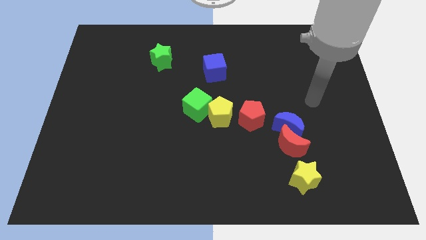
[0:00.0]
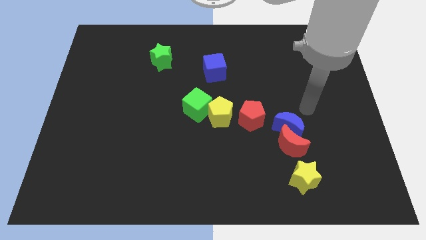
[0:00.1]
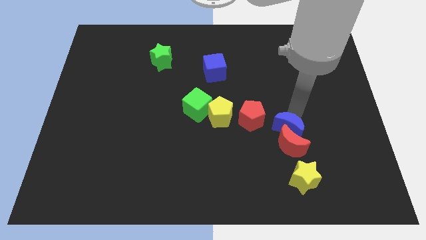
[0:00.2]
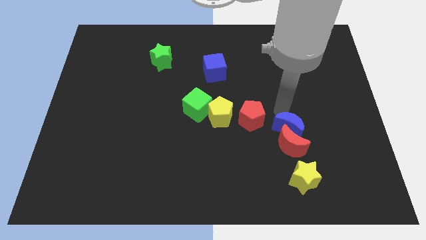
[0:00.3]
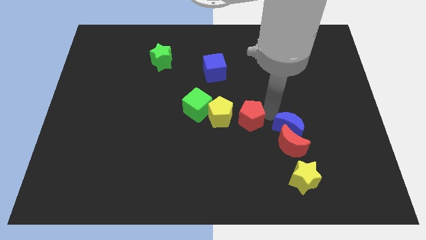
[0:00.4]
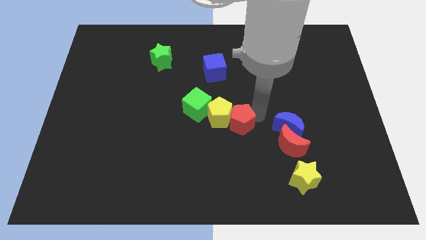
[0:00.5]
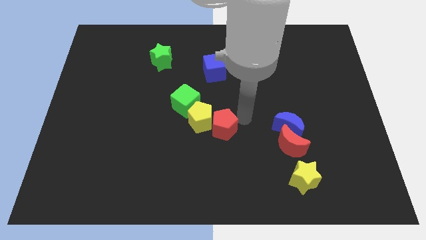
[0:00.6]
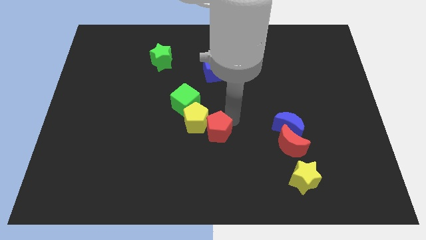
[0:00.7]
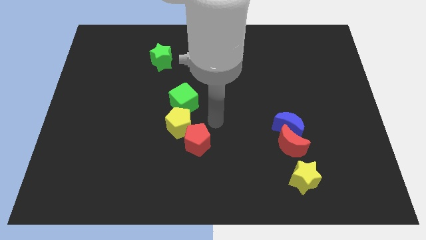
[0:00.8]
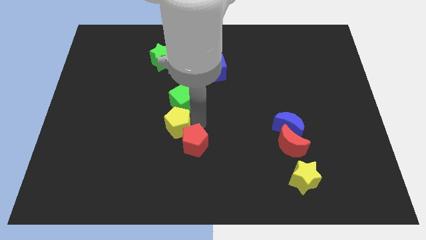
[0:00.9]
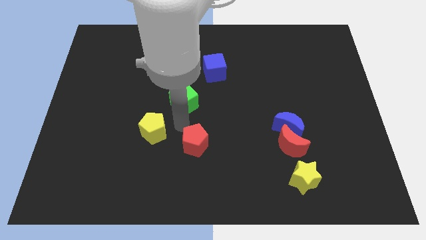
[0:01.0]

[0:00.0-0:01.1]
move the green cube away from the yellow pentagon

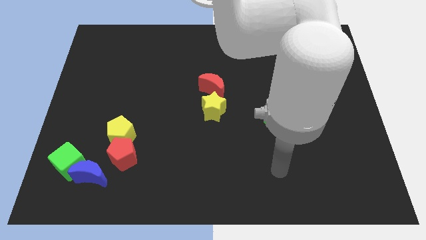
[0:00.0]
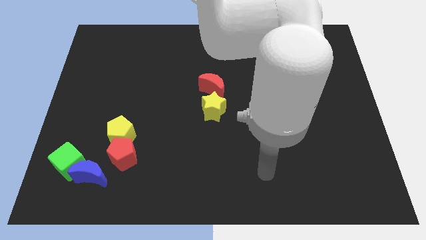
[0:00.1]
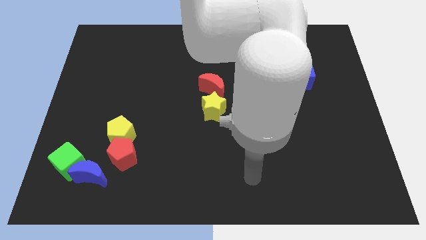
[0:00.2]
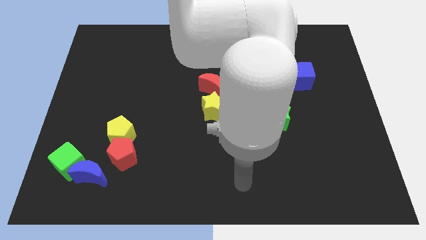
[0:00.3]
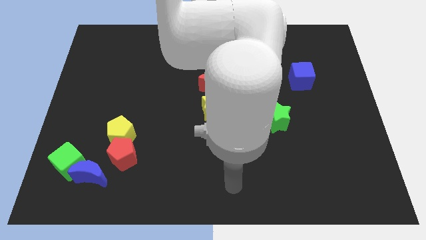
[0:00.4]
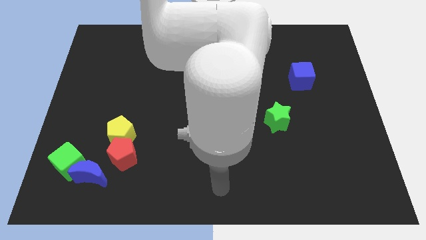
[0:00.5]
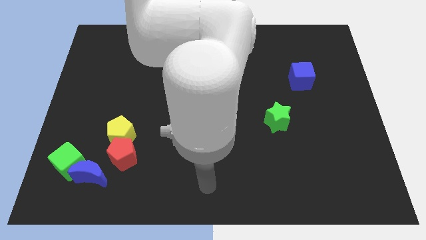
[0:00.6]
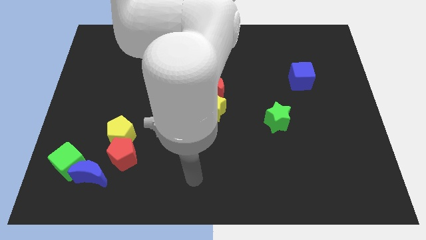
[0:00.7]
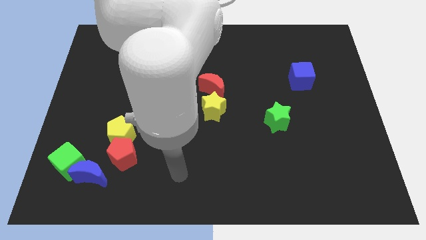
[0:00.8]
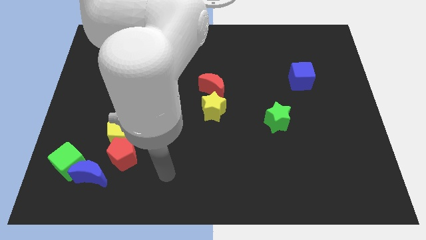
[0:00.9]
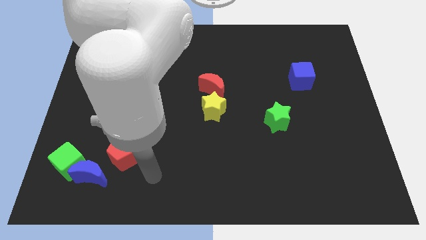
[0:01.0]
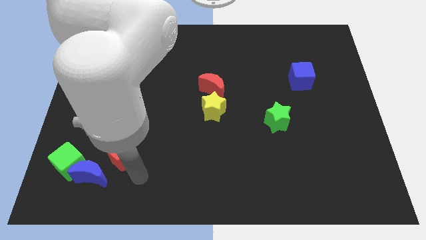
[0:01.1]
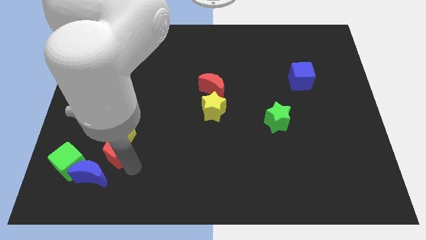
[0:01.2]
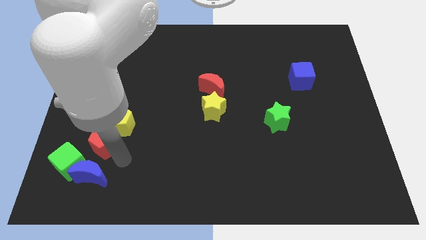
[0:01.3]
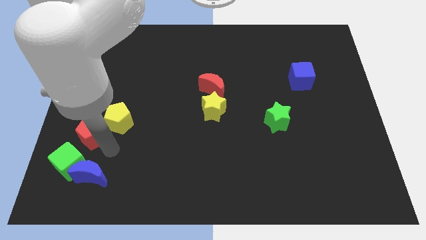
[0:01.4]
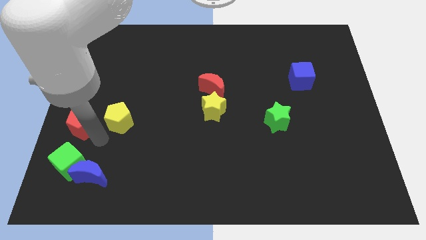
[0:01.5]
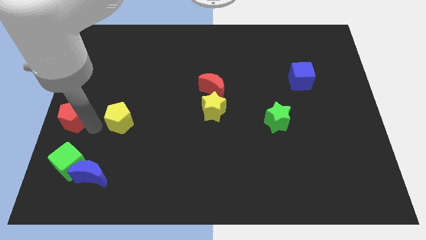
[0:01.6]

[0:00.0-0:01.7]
pull the yellow pentagon apart from the red pentagon

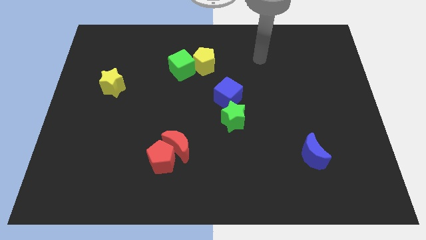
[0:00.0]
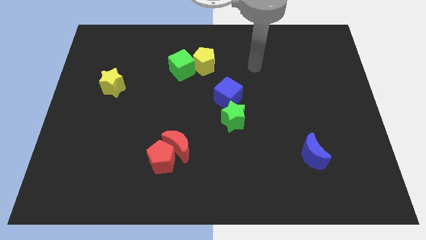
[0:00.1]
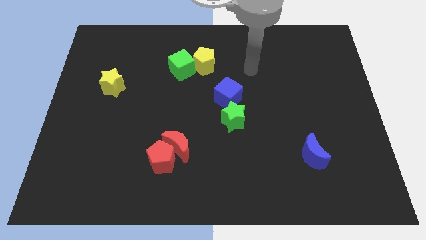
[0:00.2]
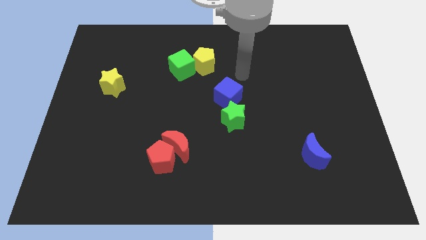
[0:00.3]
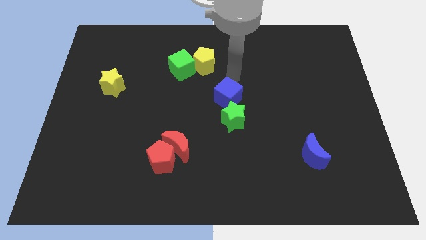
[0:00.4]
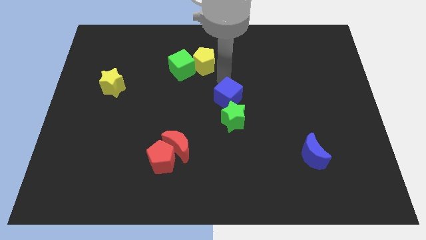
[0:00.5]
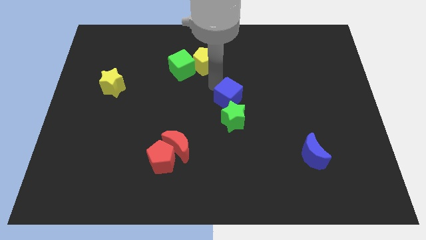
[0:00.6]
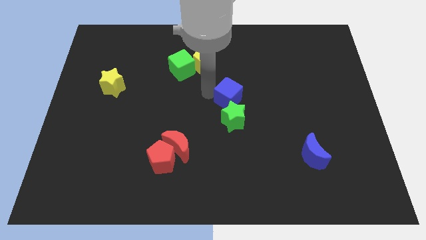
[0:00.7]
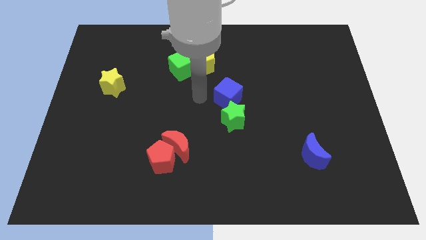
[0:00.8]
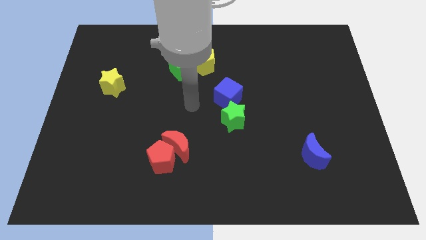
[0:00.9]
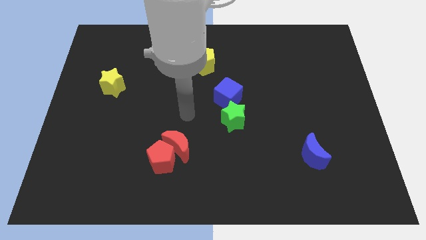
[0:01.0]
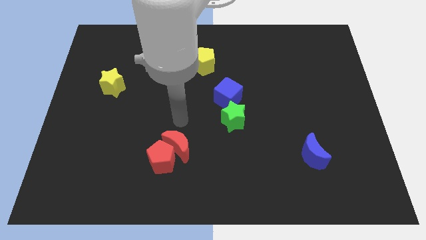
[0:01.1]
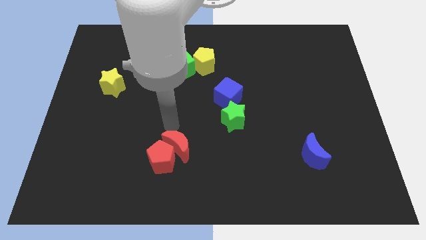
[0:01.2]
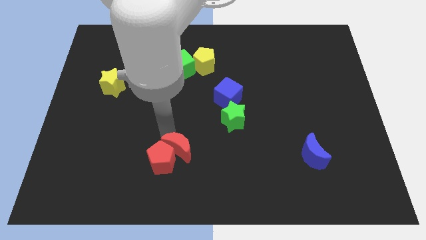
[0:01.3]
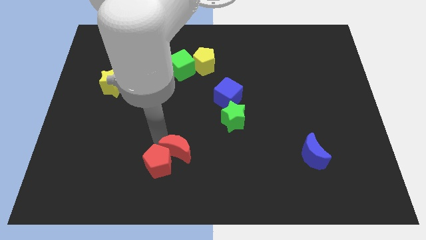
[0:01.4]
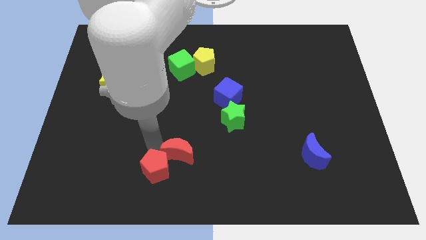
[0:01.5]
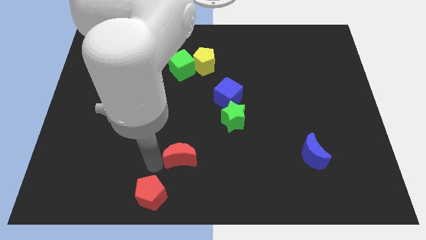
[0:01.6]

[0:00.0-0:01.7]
separate the red moon from the red pentagon

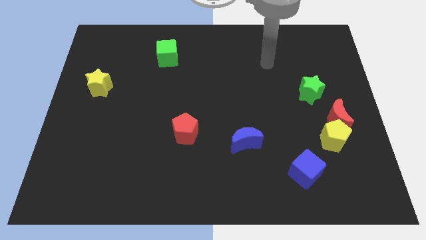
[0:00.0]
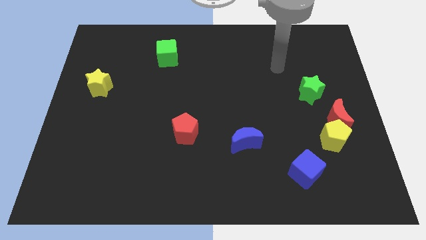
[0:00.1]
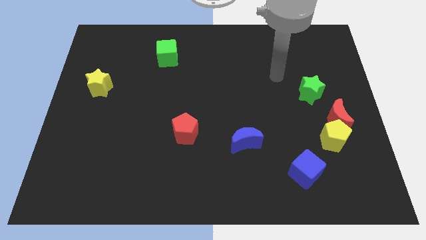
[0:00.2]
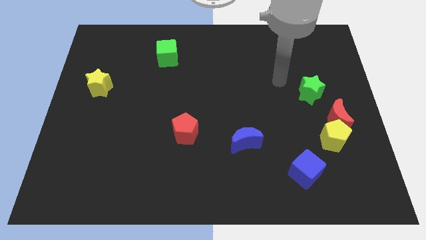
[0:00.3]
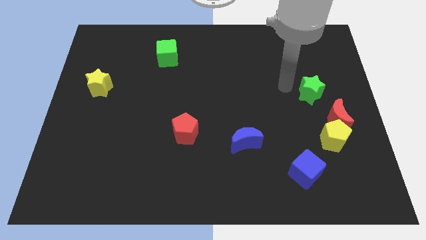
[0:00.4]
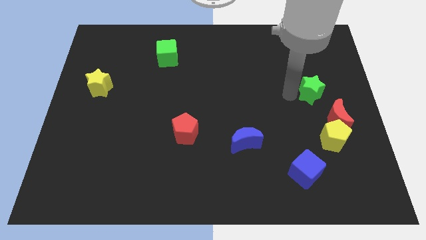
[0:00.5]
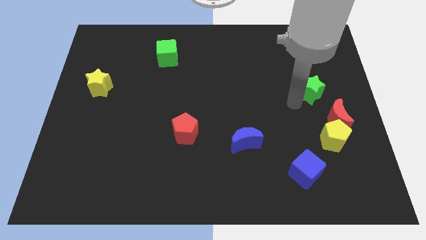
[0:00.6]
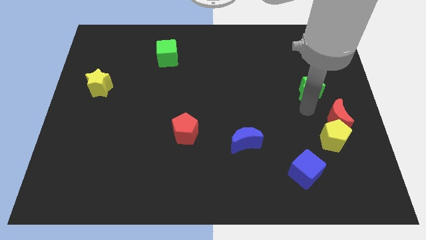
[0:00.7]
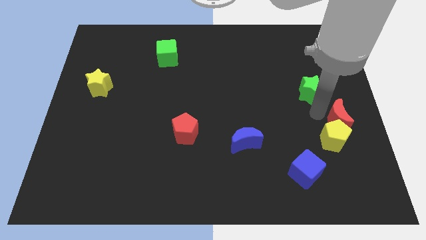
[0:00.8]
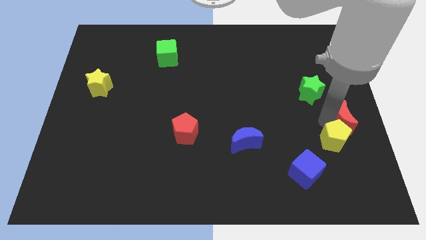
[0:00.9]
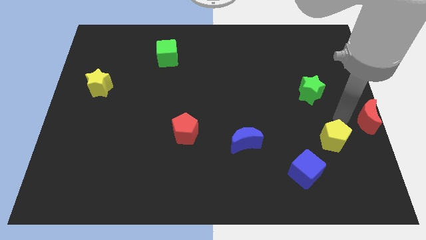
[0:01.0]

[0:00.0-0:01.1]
separate the yellow pentagon from the red moon

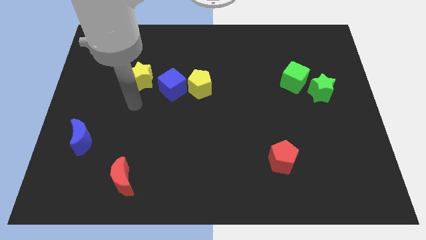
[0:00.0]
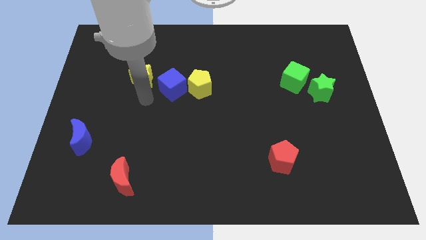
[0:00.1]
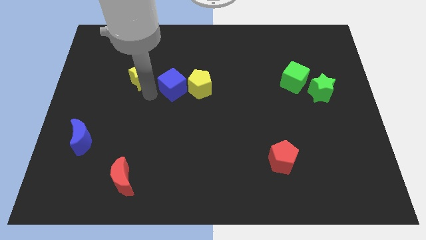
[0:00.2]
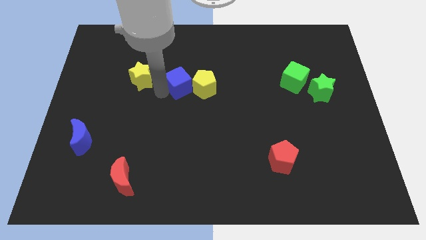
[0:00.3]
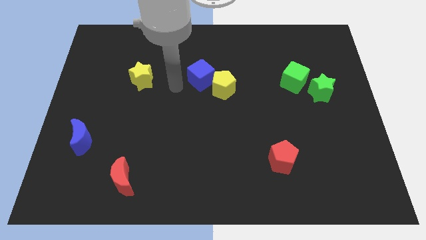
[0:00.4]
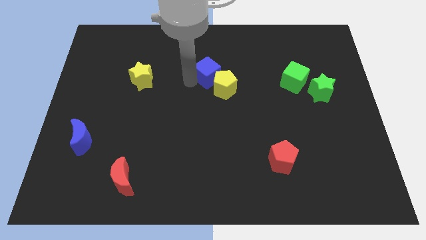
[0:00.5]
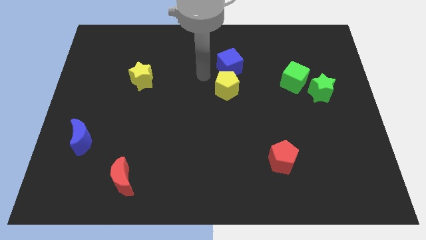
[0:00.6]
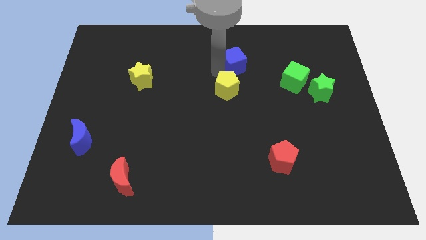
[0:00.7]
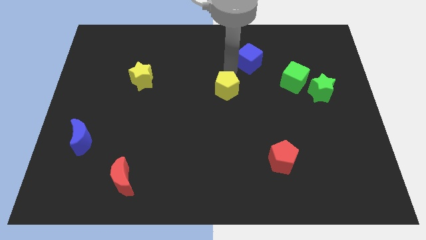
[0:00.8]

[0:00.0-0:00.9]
separate the yellow pentagon from the blue cube

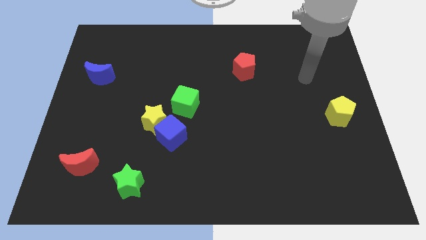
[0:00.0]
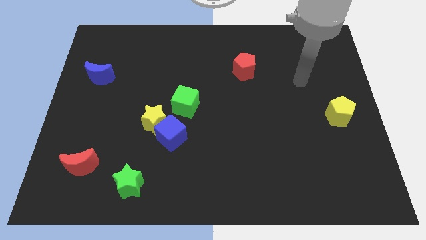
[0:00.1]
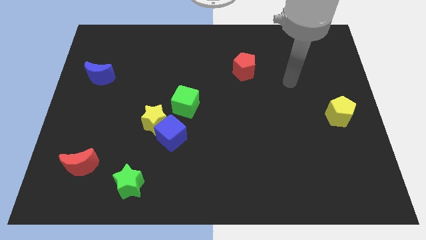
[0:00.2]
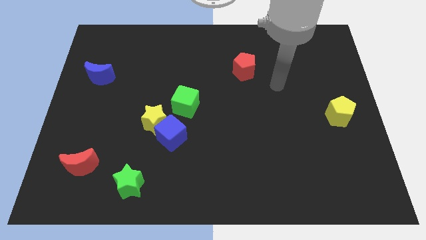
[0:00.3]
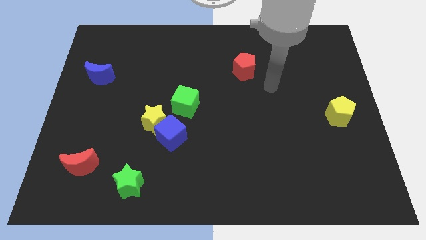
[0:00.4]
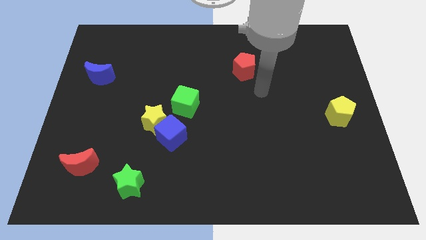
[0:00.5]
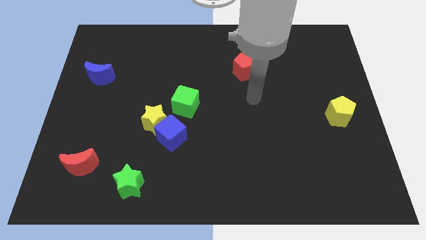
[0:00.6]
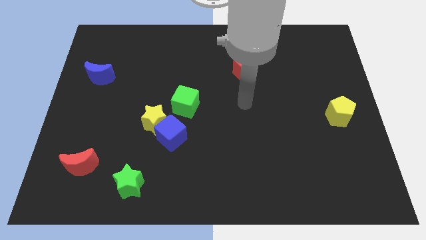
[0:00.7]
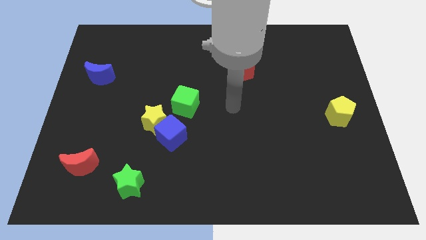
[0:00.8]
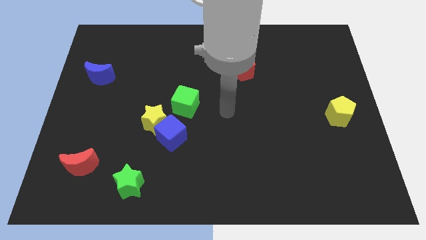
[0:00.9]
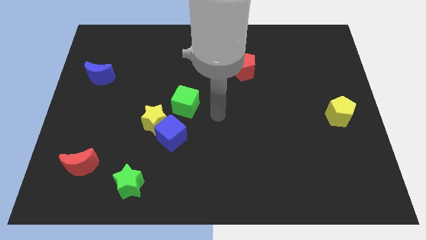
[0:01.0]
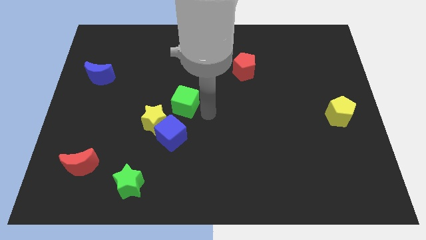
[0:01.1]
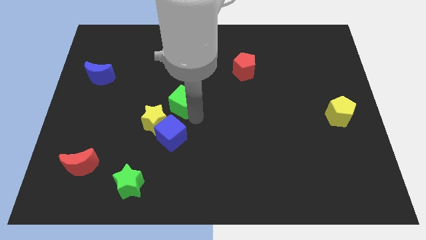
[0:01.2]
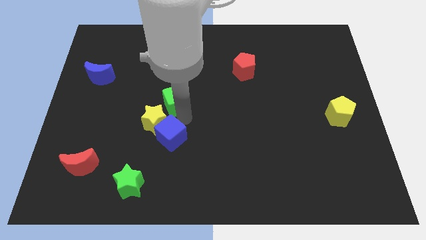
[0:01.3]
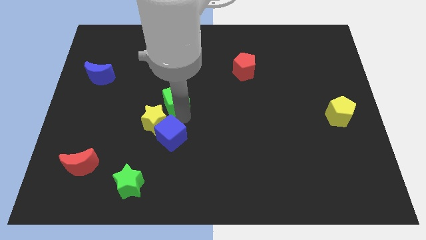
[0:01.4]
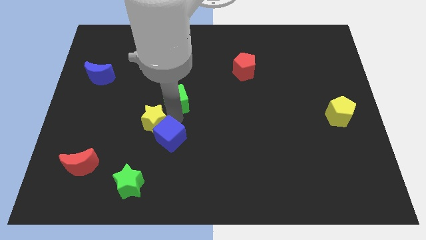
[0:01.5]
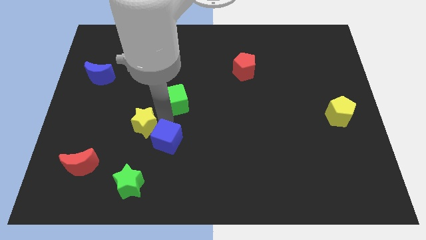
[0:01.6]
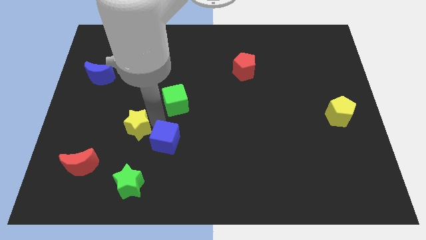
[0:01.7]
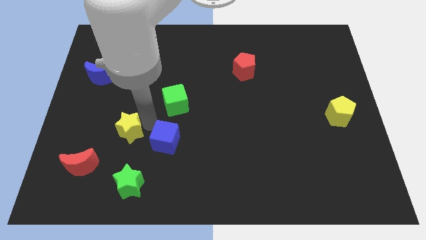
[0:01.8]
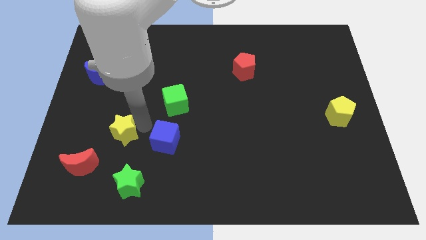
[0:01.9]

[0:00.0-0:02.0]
move the yellow star away from the blue cube and green cube

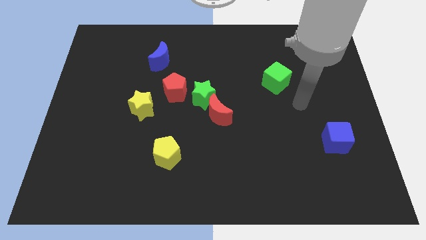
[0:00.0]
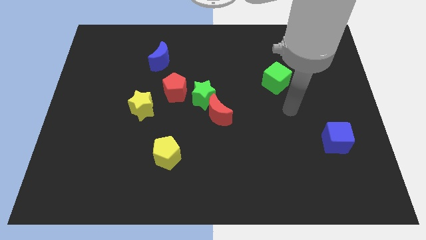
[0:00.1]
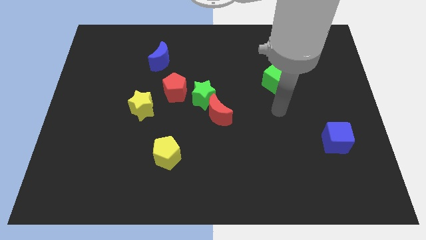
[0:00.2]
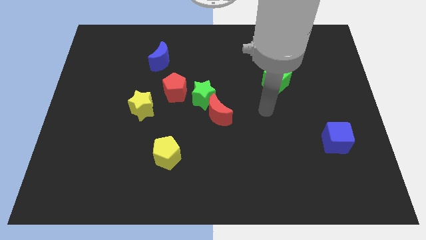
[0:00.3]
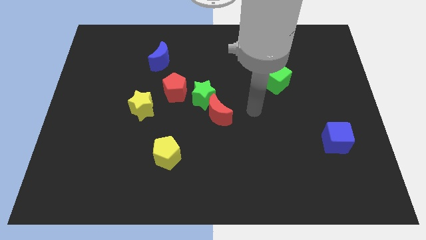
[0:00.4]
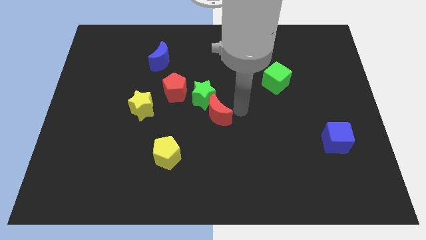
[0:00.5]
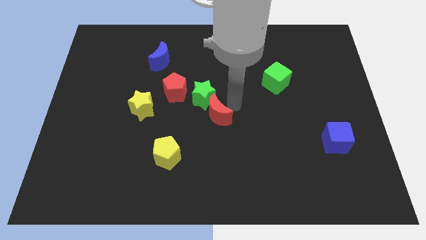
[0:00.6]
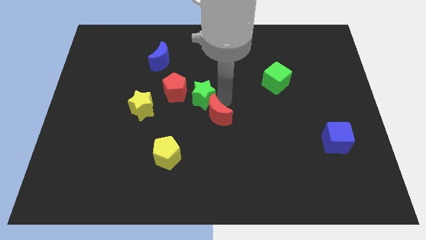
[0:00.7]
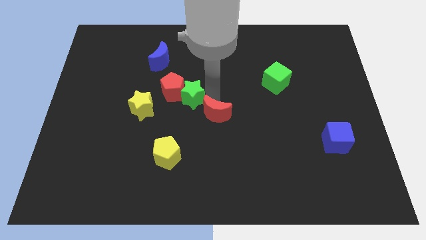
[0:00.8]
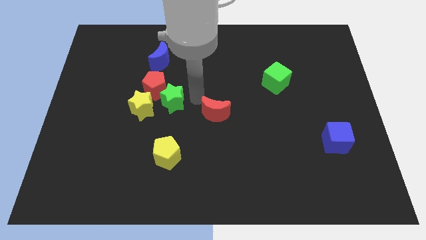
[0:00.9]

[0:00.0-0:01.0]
move the red moon away from the green star
